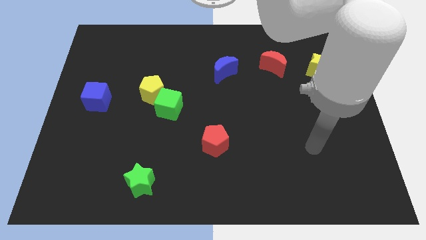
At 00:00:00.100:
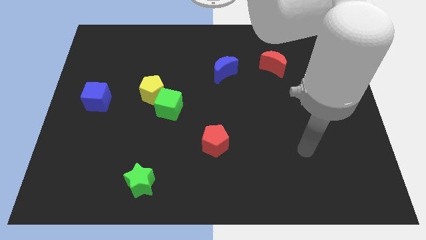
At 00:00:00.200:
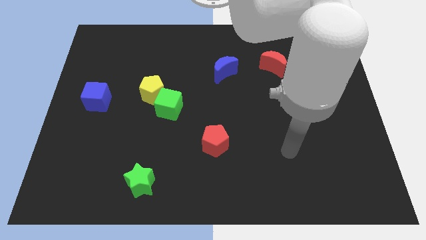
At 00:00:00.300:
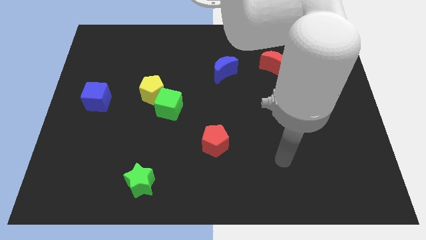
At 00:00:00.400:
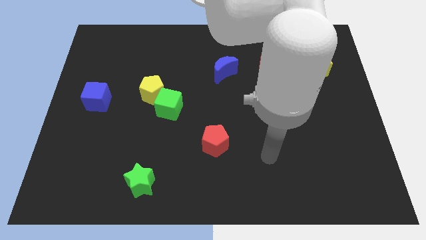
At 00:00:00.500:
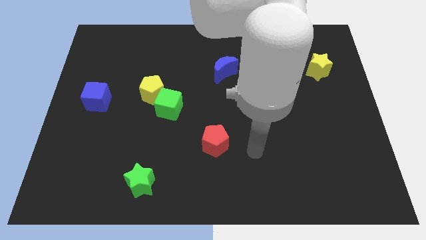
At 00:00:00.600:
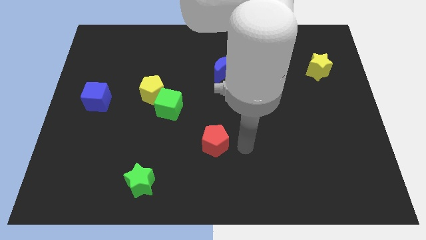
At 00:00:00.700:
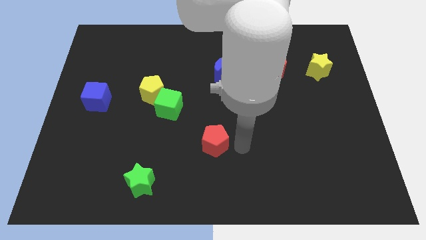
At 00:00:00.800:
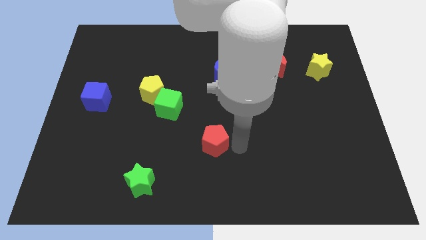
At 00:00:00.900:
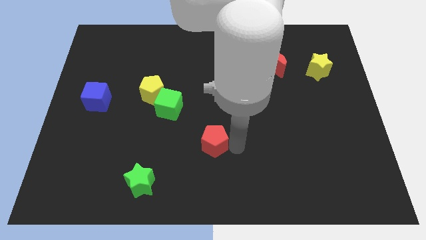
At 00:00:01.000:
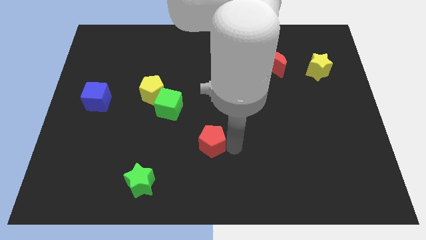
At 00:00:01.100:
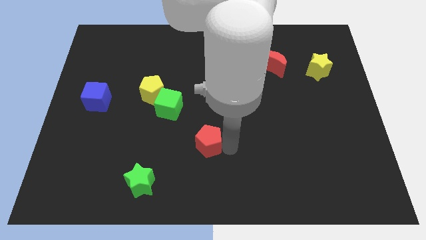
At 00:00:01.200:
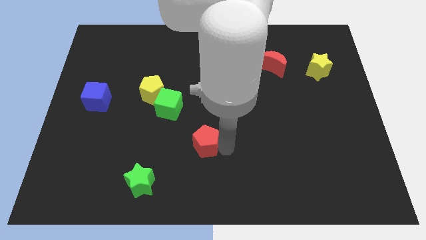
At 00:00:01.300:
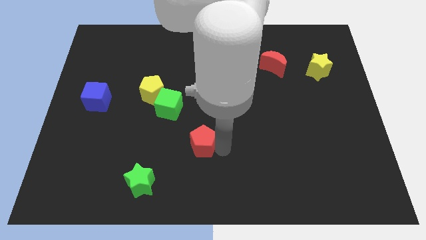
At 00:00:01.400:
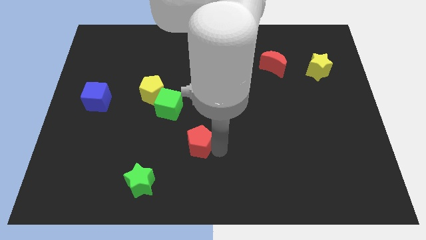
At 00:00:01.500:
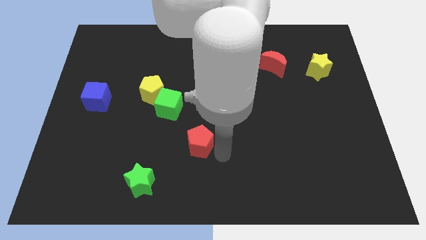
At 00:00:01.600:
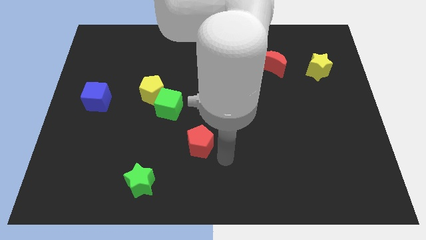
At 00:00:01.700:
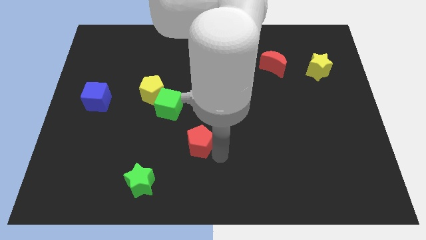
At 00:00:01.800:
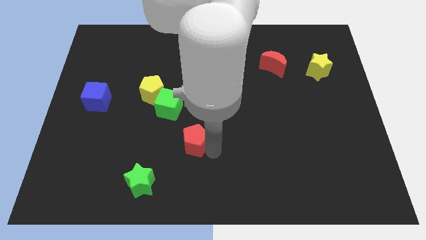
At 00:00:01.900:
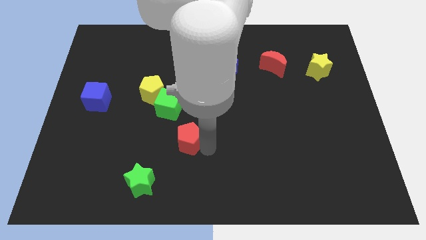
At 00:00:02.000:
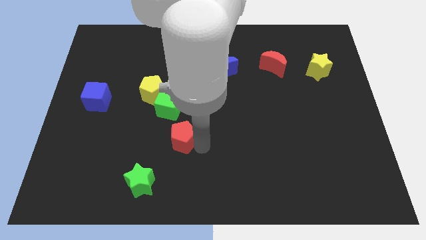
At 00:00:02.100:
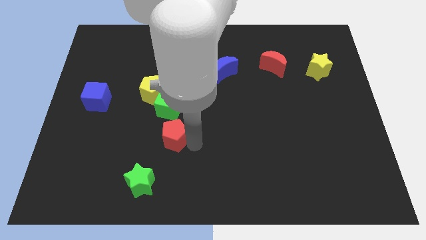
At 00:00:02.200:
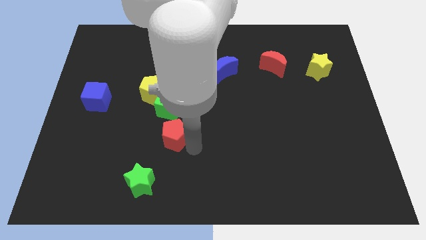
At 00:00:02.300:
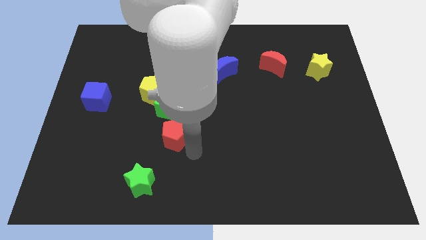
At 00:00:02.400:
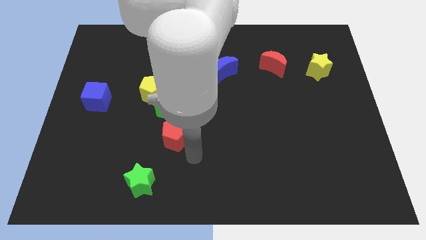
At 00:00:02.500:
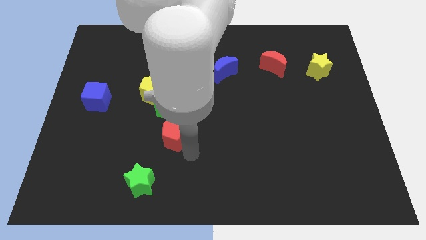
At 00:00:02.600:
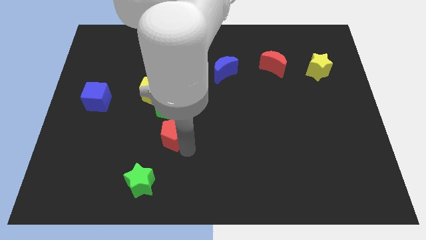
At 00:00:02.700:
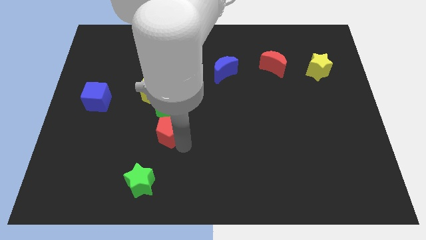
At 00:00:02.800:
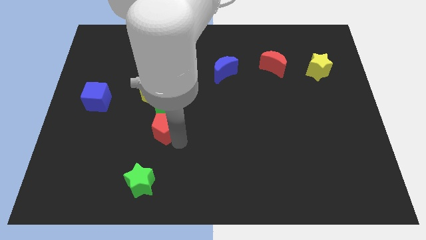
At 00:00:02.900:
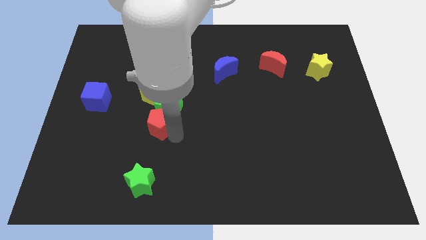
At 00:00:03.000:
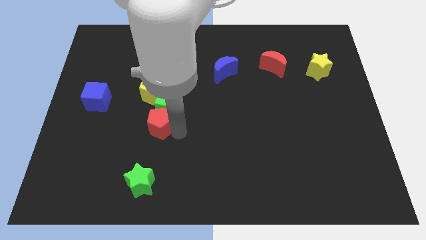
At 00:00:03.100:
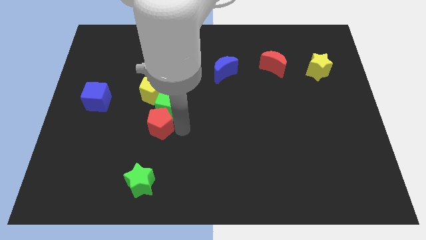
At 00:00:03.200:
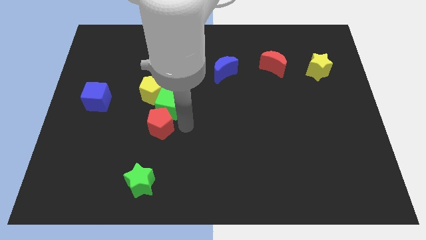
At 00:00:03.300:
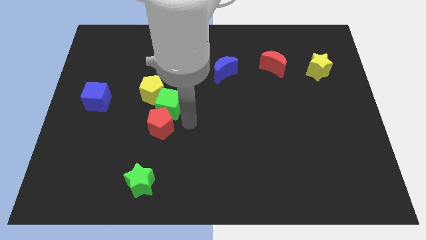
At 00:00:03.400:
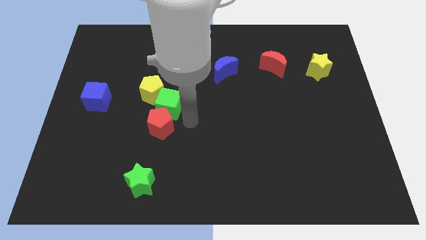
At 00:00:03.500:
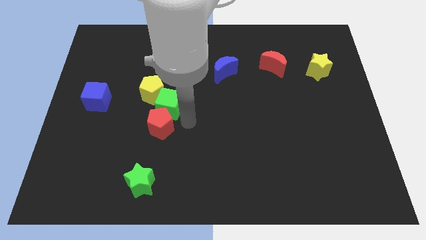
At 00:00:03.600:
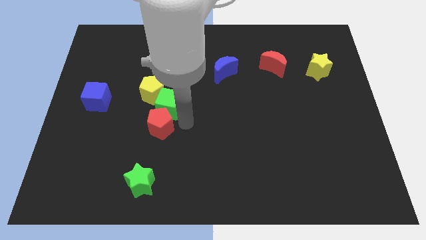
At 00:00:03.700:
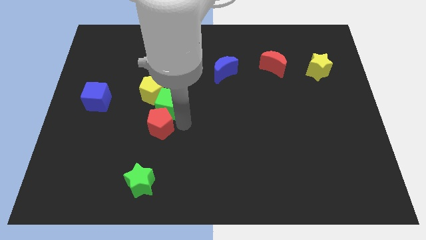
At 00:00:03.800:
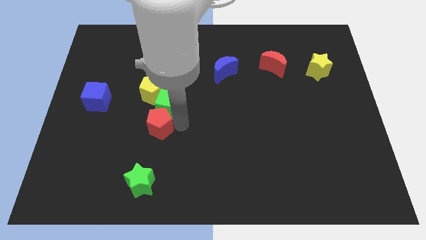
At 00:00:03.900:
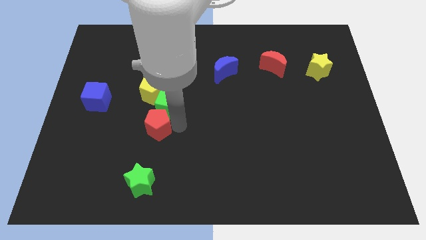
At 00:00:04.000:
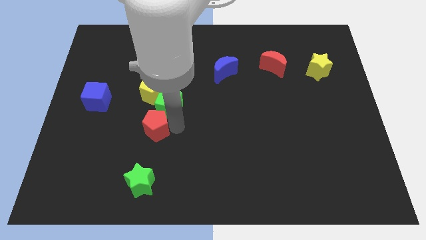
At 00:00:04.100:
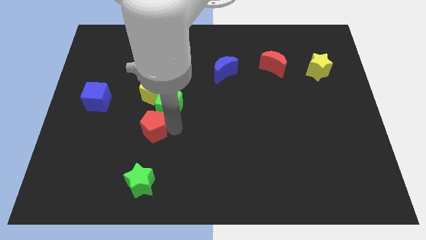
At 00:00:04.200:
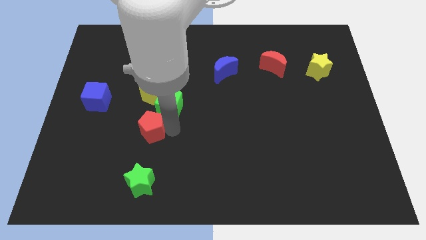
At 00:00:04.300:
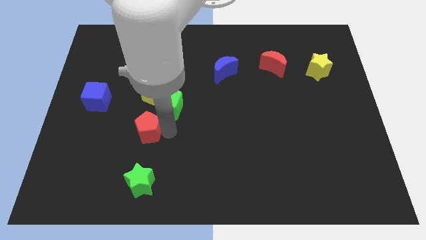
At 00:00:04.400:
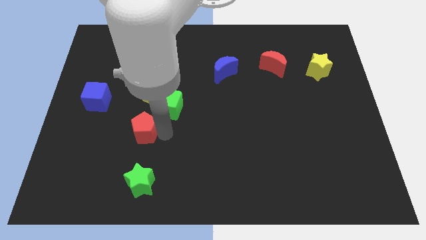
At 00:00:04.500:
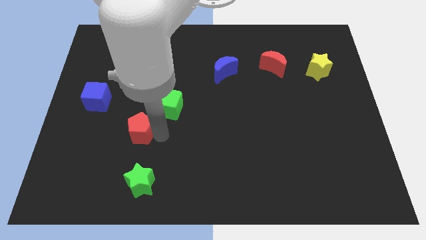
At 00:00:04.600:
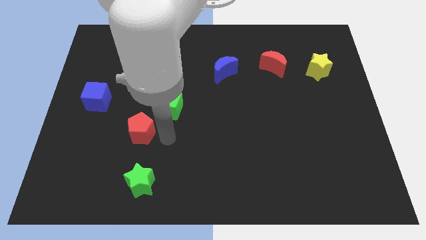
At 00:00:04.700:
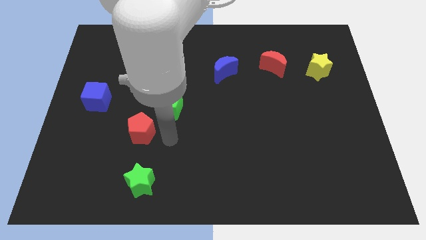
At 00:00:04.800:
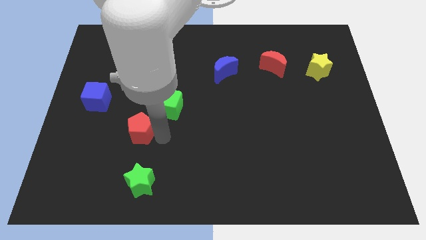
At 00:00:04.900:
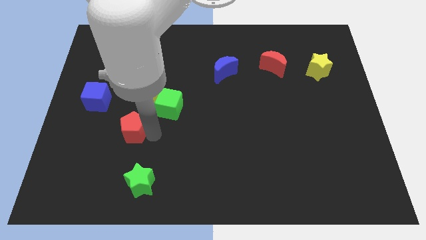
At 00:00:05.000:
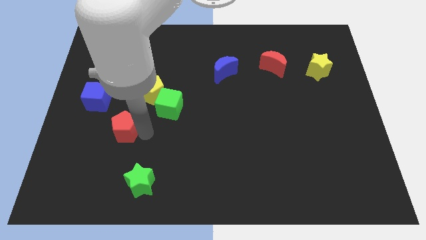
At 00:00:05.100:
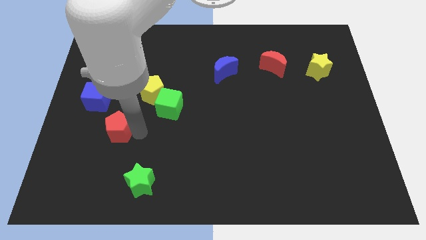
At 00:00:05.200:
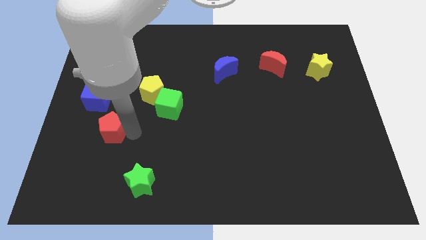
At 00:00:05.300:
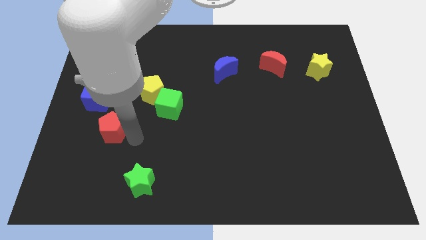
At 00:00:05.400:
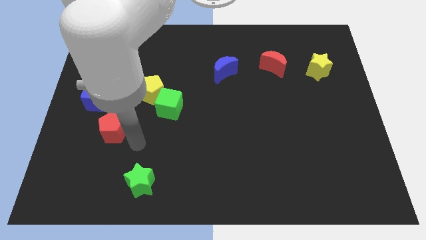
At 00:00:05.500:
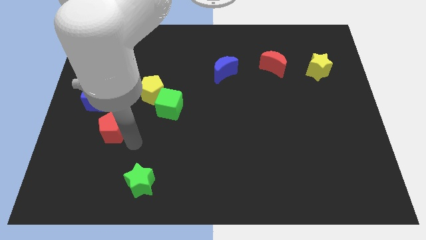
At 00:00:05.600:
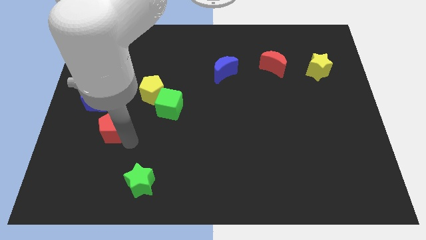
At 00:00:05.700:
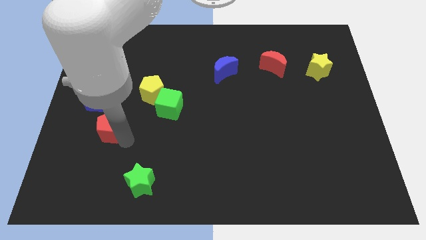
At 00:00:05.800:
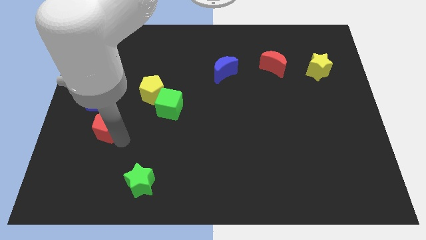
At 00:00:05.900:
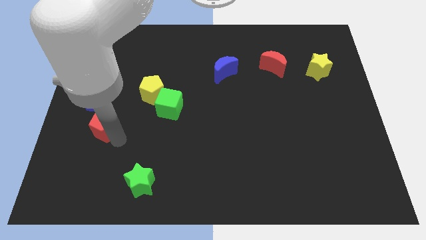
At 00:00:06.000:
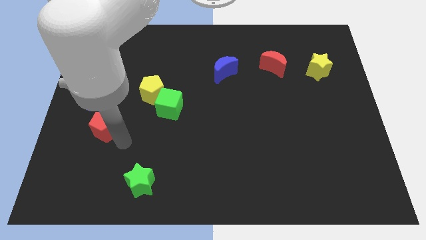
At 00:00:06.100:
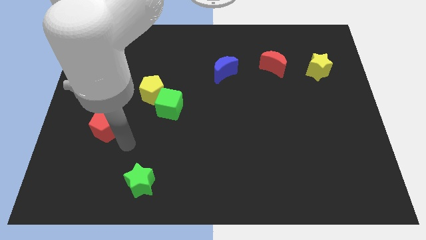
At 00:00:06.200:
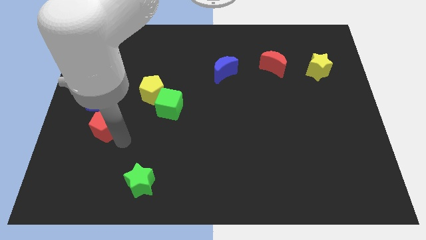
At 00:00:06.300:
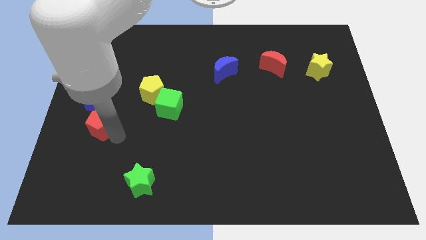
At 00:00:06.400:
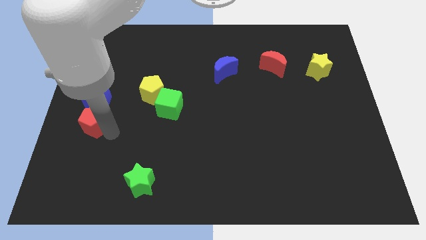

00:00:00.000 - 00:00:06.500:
push the red pentagon to the left side of the board

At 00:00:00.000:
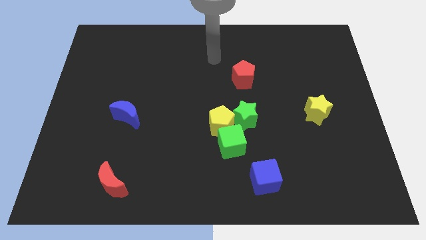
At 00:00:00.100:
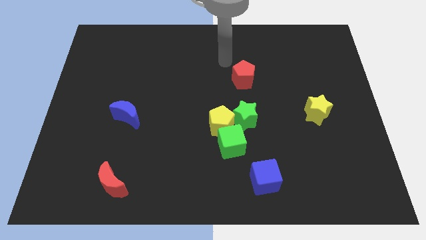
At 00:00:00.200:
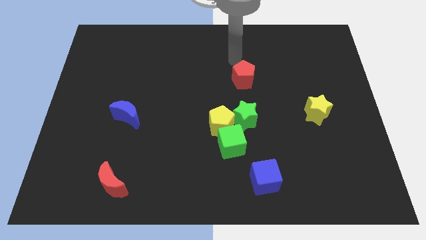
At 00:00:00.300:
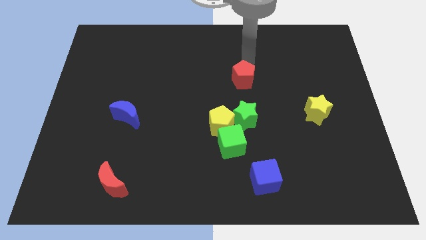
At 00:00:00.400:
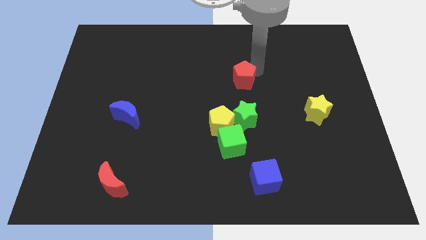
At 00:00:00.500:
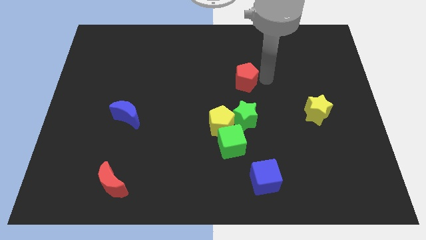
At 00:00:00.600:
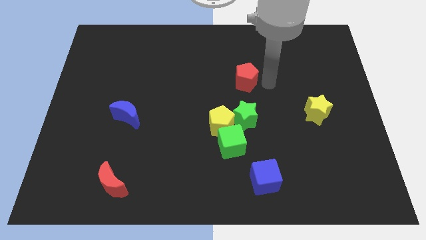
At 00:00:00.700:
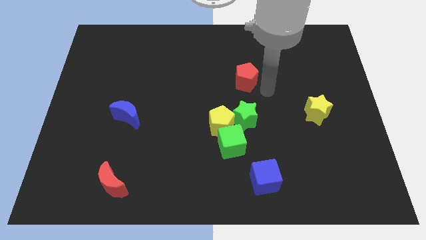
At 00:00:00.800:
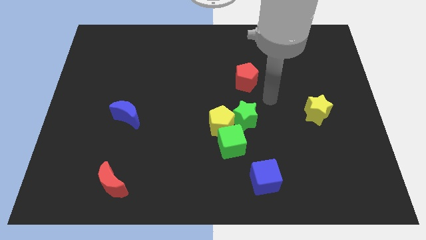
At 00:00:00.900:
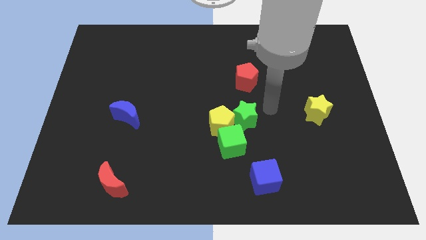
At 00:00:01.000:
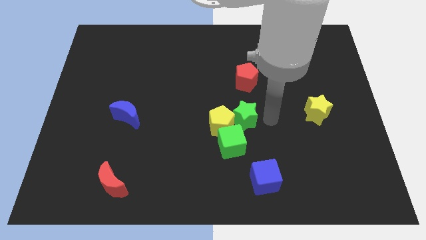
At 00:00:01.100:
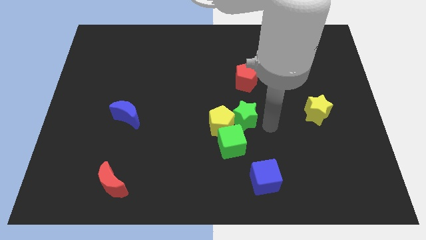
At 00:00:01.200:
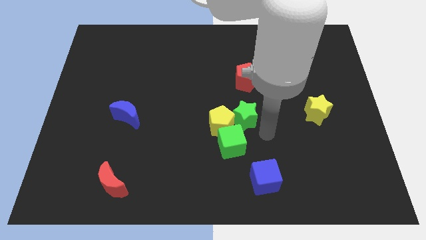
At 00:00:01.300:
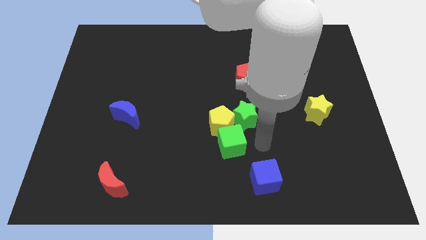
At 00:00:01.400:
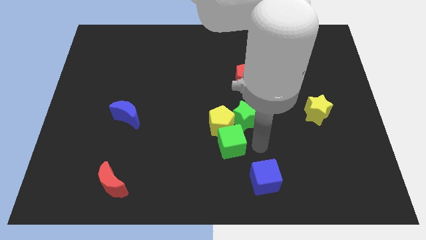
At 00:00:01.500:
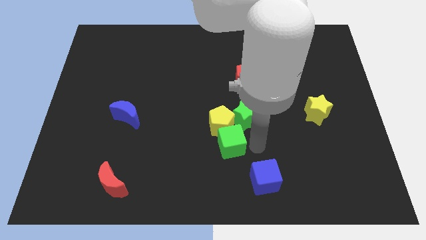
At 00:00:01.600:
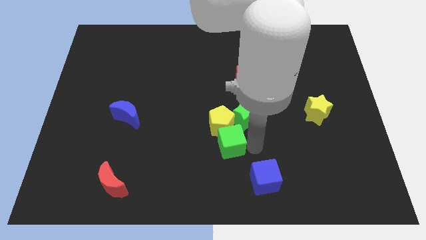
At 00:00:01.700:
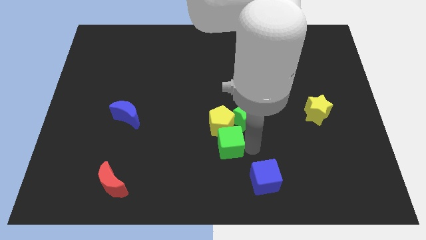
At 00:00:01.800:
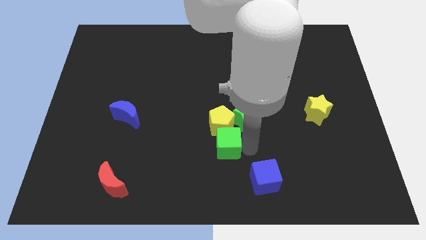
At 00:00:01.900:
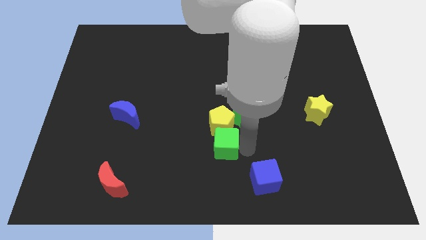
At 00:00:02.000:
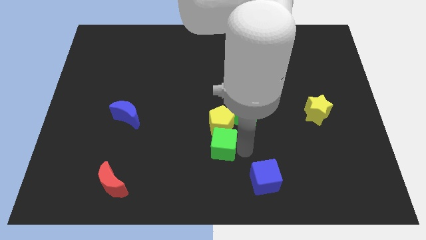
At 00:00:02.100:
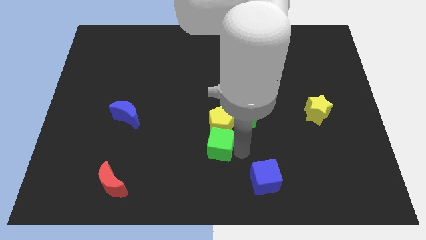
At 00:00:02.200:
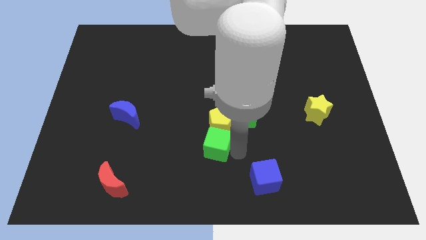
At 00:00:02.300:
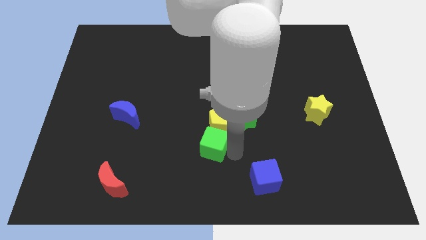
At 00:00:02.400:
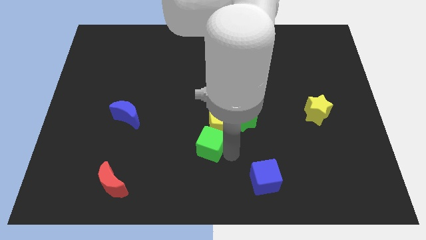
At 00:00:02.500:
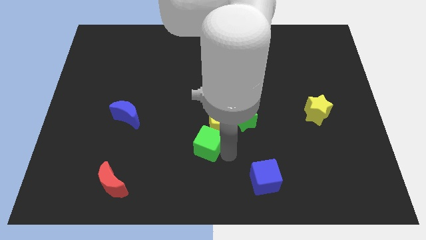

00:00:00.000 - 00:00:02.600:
slide the green cube to the center
